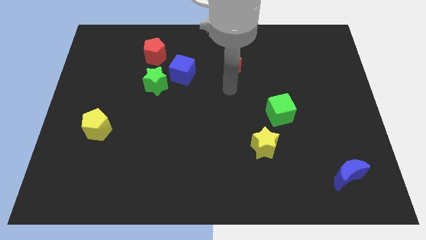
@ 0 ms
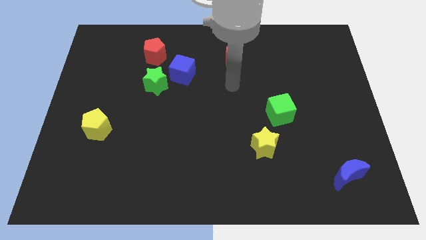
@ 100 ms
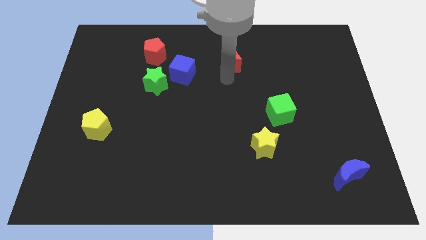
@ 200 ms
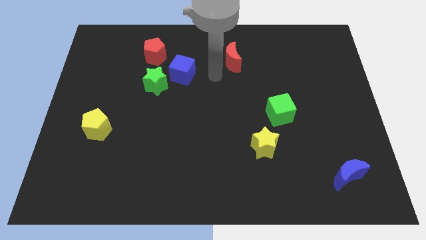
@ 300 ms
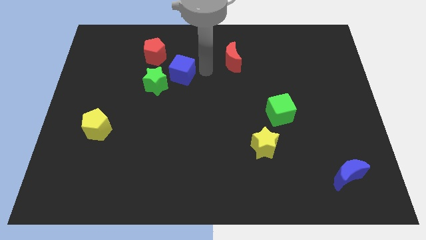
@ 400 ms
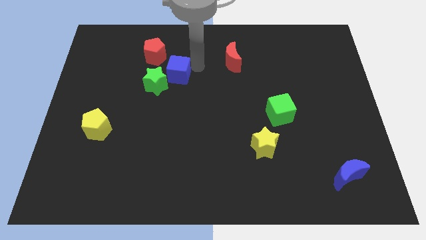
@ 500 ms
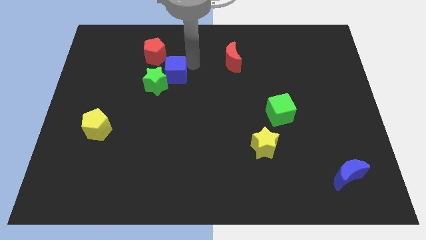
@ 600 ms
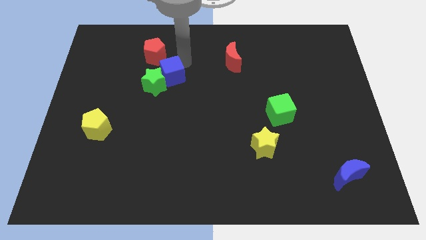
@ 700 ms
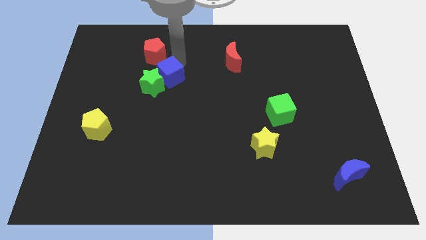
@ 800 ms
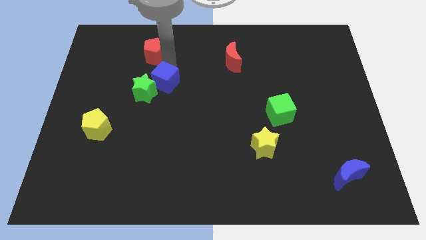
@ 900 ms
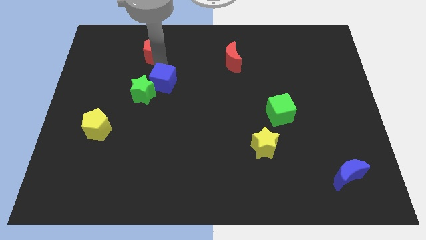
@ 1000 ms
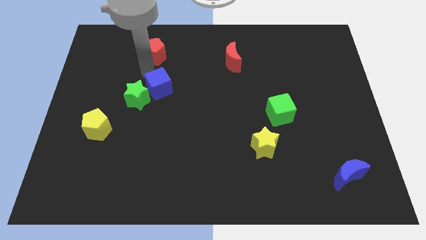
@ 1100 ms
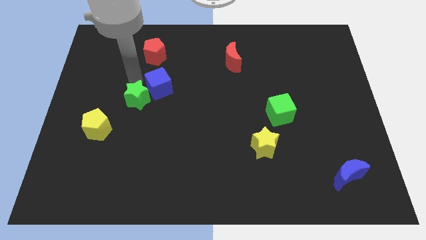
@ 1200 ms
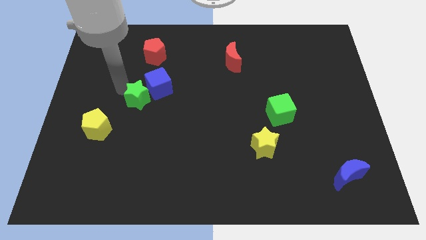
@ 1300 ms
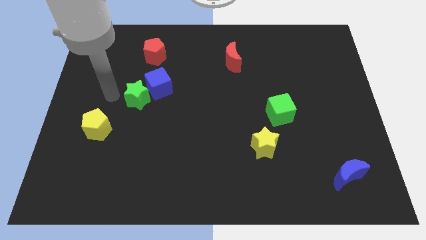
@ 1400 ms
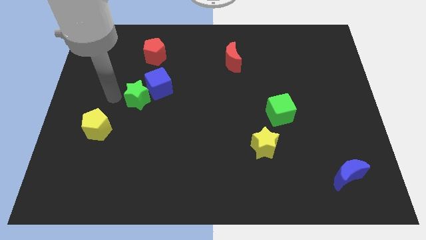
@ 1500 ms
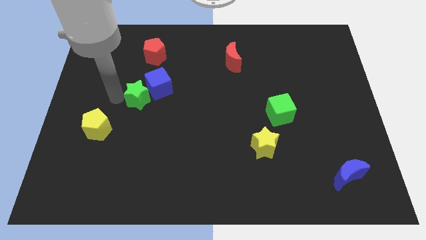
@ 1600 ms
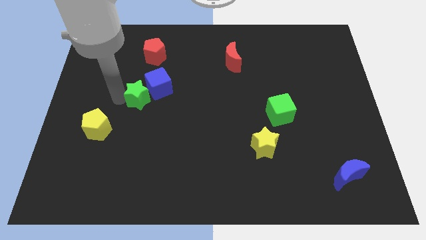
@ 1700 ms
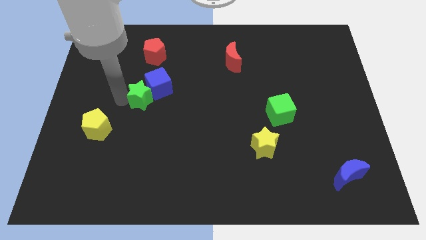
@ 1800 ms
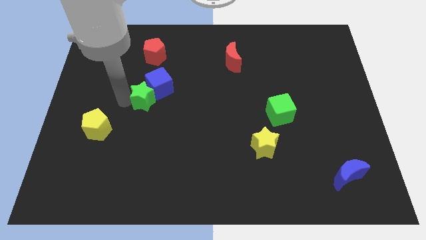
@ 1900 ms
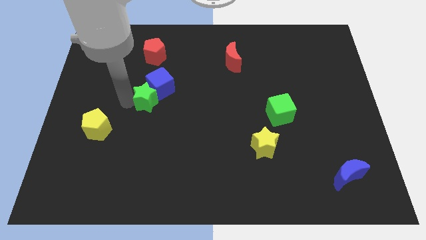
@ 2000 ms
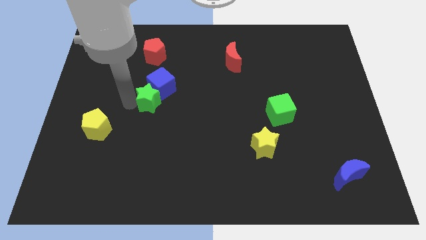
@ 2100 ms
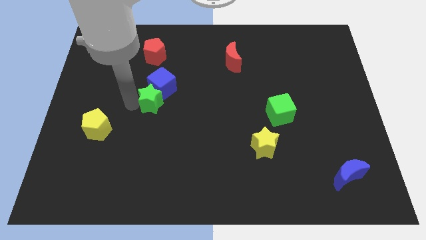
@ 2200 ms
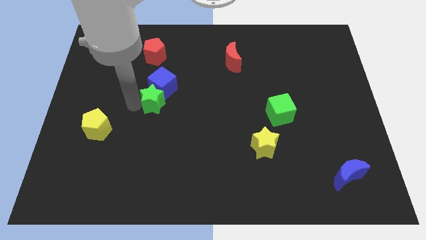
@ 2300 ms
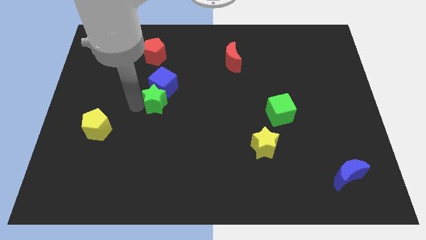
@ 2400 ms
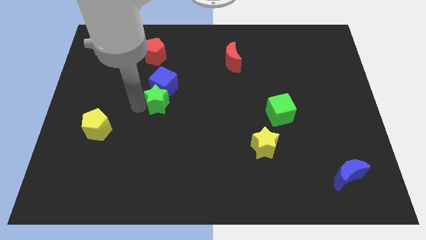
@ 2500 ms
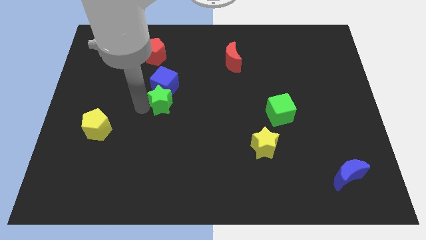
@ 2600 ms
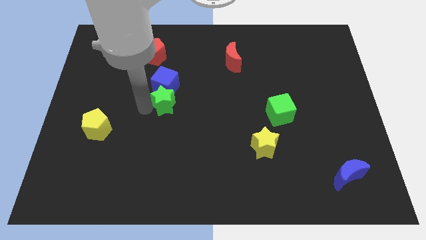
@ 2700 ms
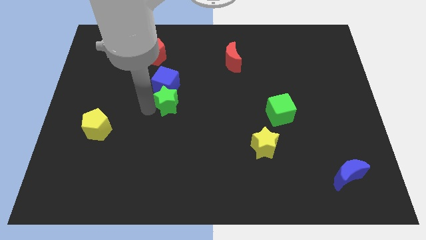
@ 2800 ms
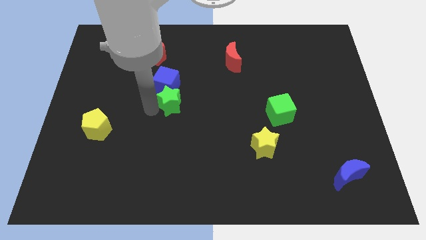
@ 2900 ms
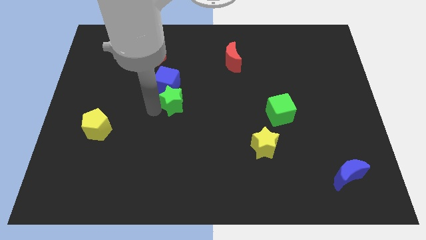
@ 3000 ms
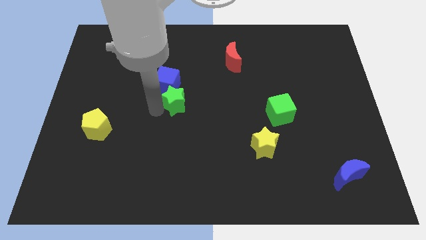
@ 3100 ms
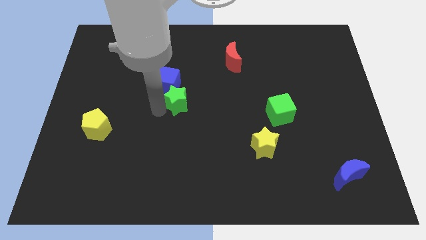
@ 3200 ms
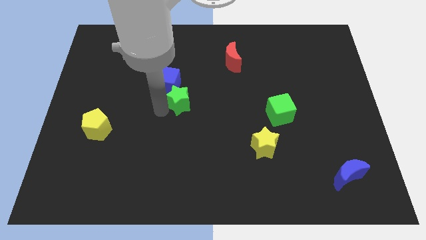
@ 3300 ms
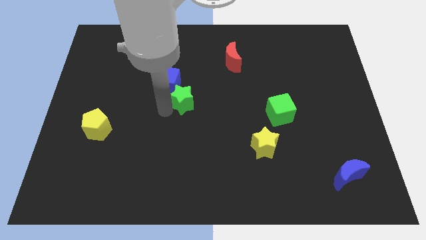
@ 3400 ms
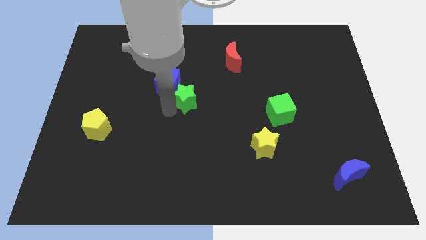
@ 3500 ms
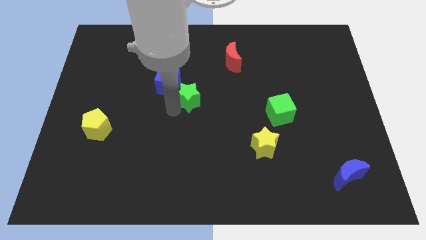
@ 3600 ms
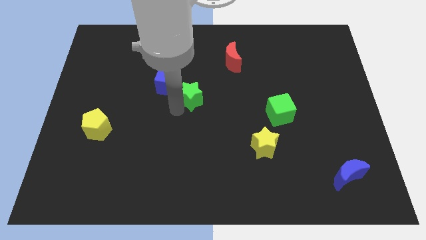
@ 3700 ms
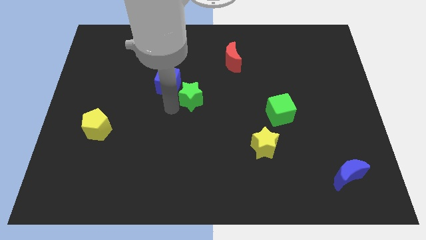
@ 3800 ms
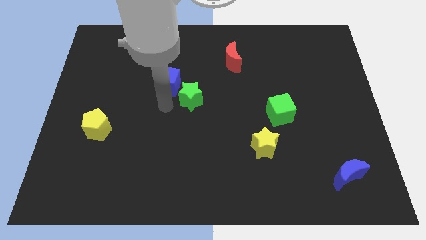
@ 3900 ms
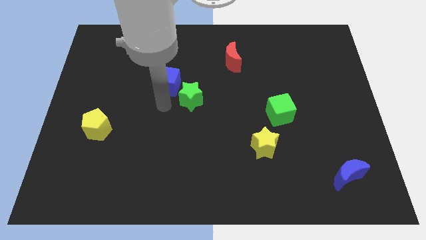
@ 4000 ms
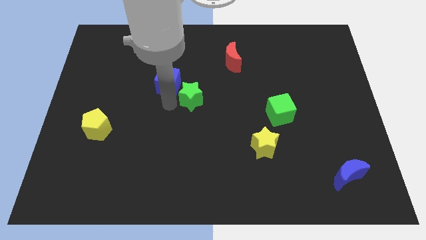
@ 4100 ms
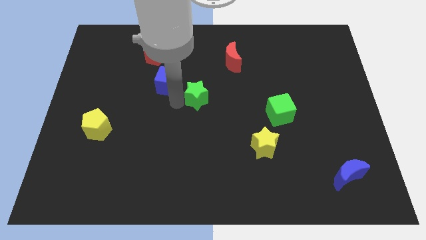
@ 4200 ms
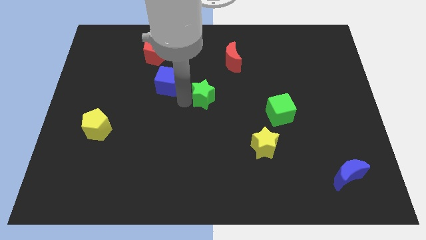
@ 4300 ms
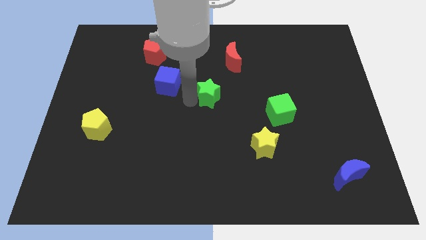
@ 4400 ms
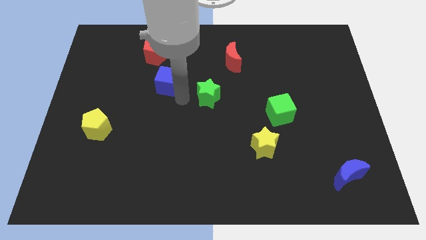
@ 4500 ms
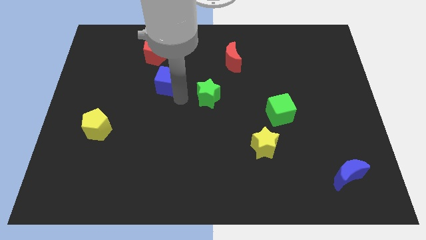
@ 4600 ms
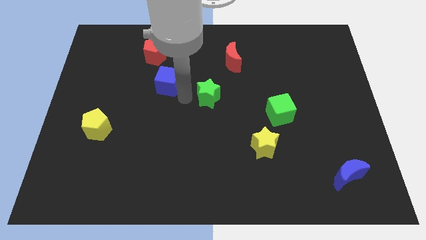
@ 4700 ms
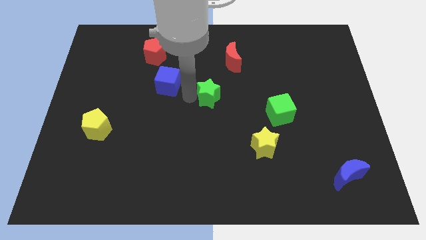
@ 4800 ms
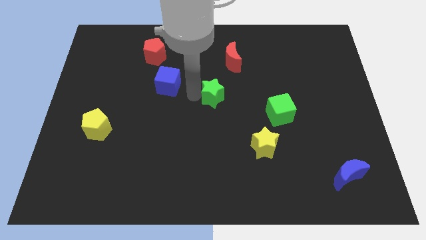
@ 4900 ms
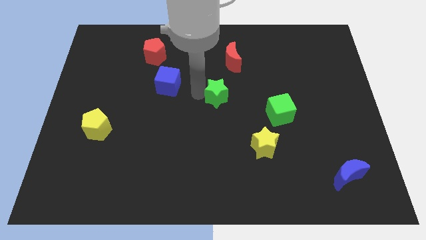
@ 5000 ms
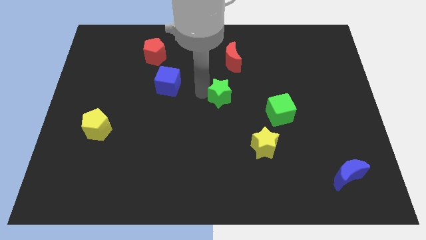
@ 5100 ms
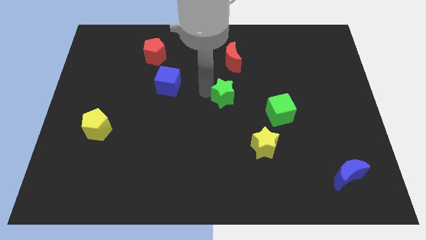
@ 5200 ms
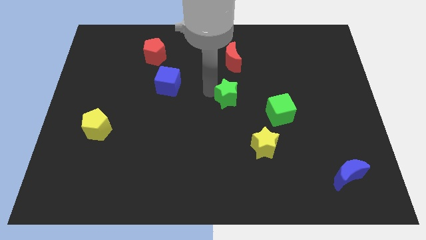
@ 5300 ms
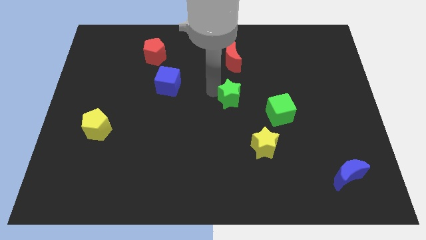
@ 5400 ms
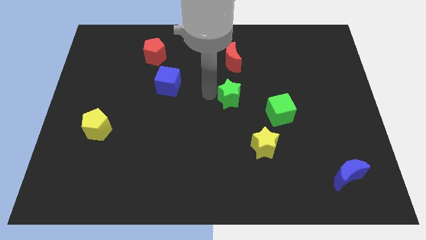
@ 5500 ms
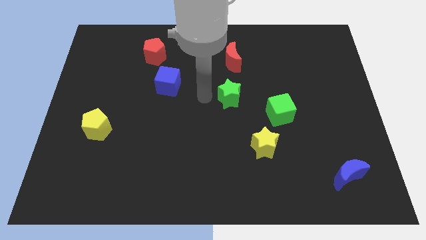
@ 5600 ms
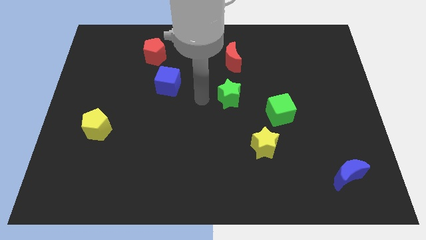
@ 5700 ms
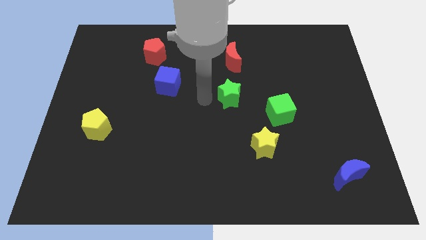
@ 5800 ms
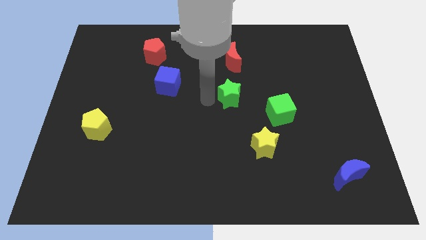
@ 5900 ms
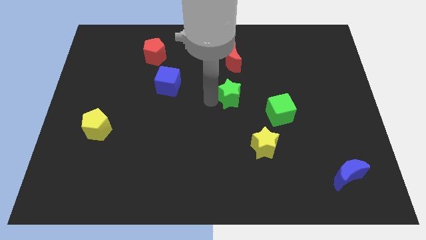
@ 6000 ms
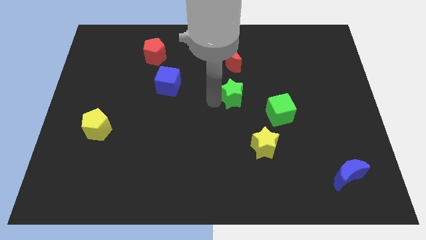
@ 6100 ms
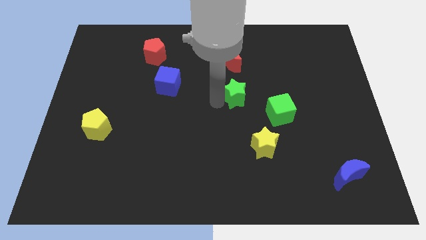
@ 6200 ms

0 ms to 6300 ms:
push the green star to the top left of the green cube

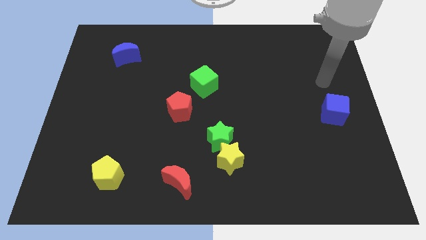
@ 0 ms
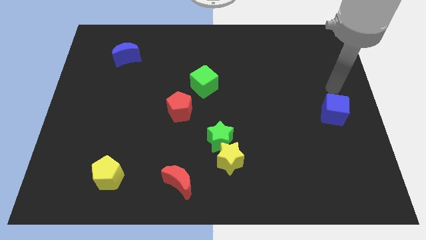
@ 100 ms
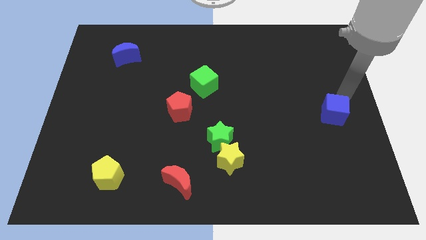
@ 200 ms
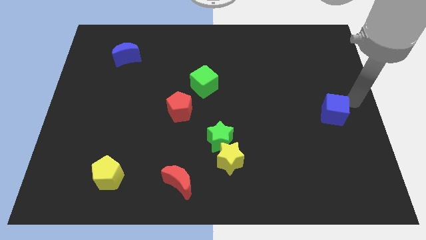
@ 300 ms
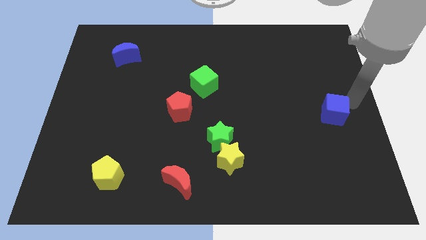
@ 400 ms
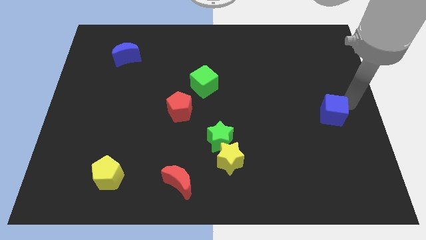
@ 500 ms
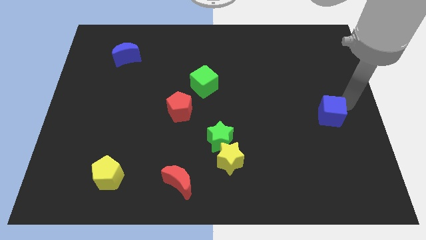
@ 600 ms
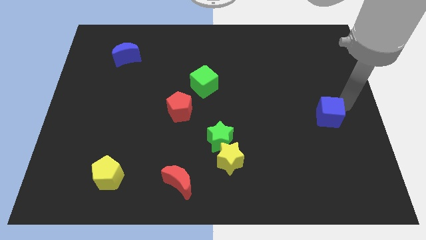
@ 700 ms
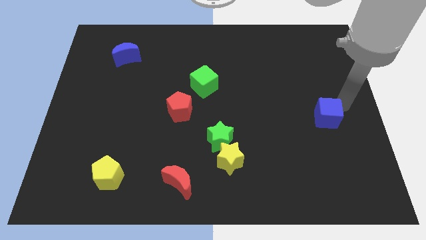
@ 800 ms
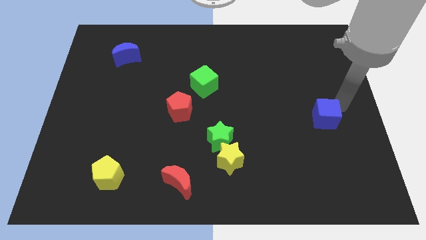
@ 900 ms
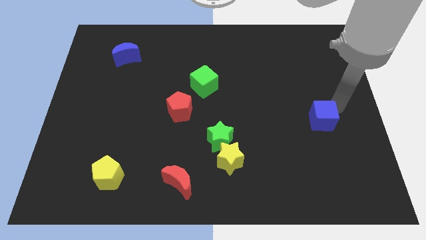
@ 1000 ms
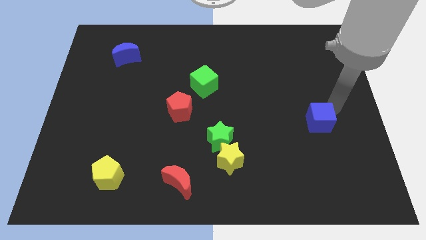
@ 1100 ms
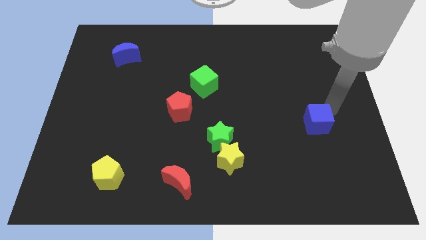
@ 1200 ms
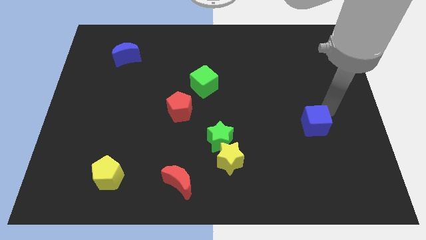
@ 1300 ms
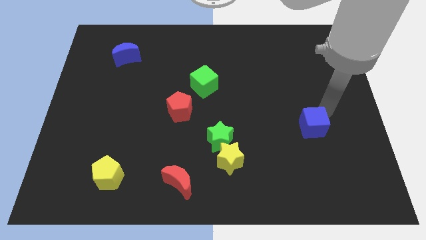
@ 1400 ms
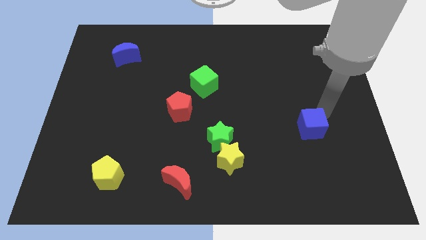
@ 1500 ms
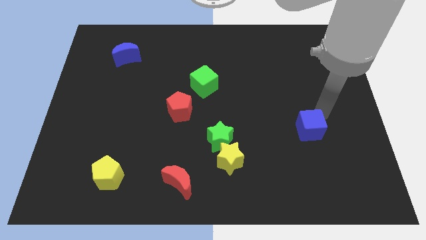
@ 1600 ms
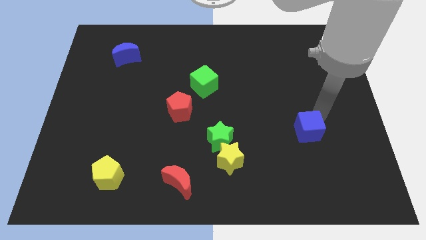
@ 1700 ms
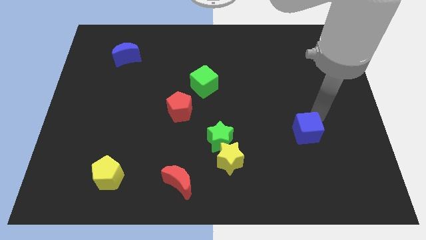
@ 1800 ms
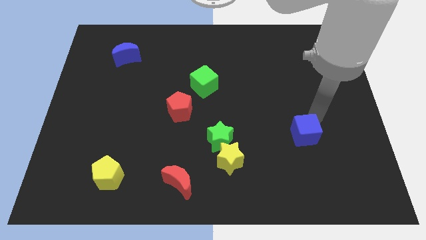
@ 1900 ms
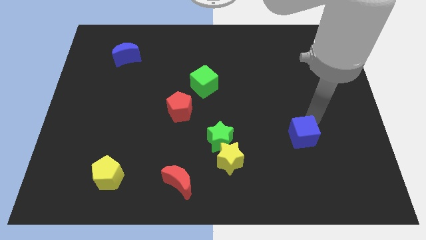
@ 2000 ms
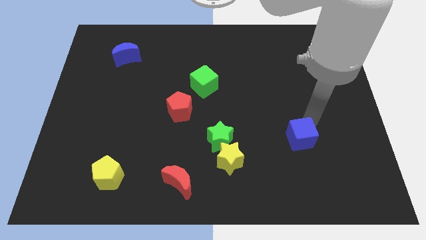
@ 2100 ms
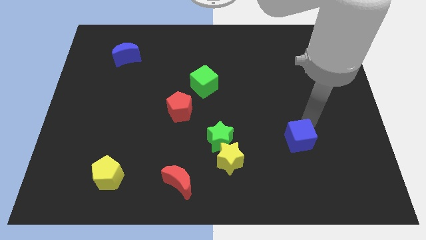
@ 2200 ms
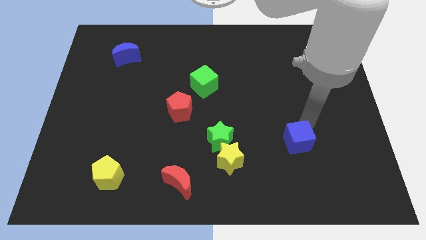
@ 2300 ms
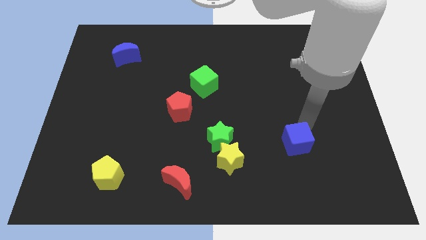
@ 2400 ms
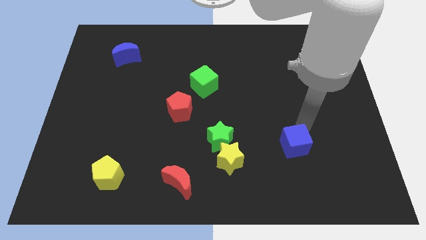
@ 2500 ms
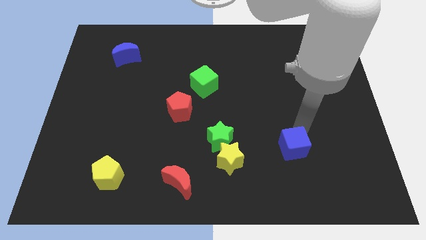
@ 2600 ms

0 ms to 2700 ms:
slide the blue cube right of the yellow star
